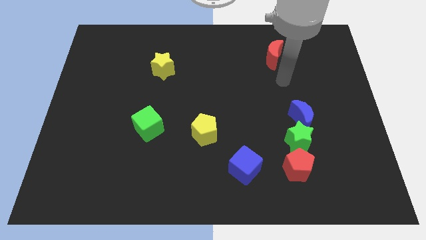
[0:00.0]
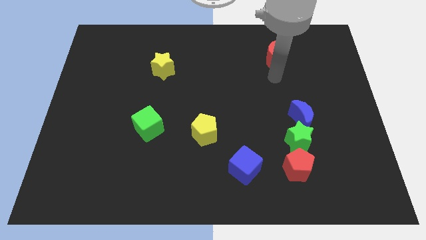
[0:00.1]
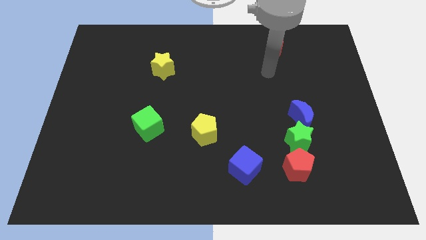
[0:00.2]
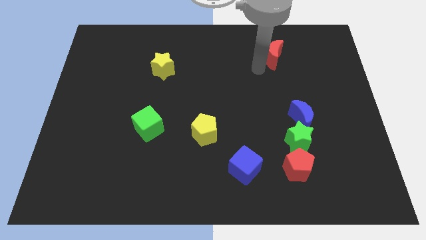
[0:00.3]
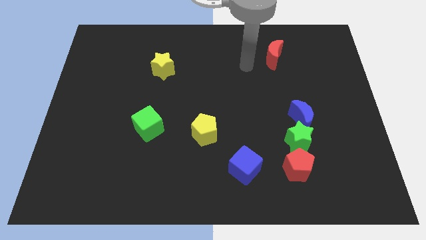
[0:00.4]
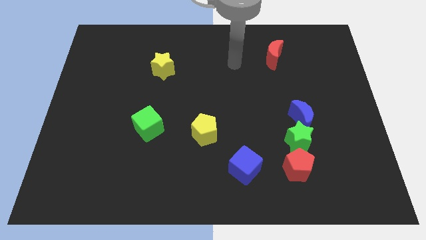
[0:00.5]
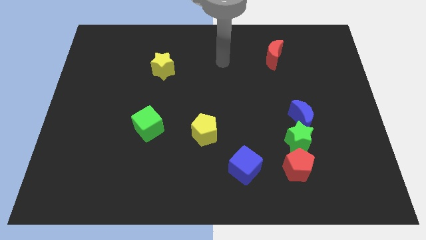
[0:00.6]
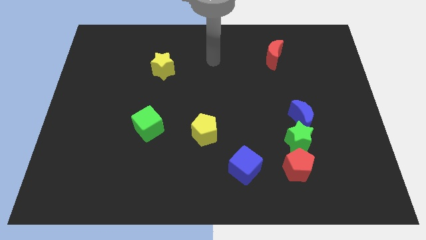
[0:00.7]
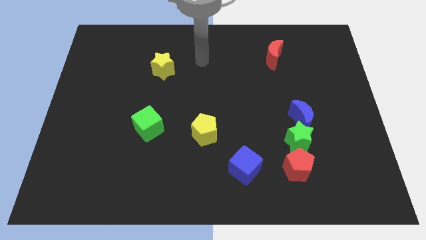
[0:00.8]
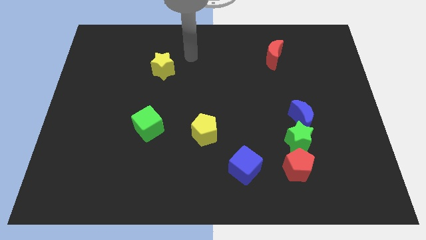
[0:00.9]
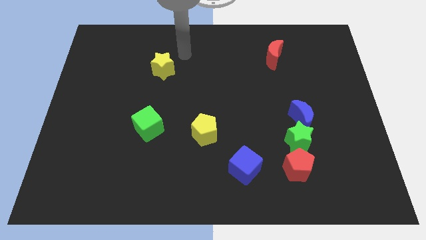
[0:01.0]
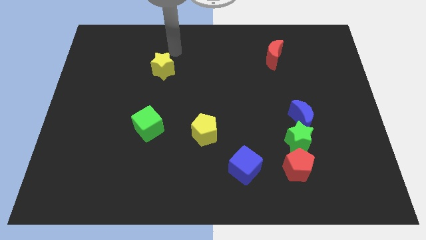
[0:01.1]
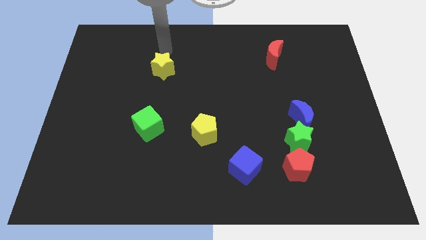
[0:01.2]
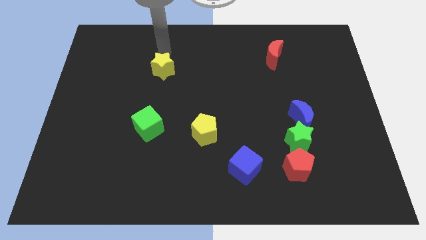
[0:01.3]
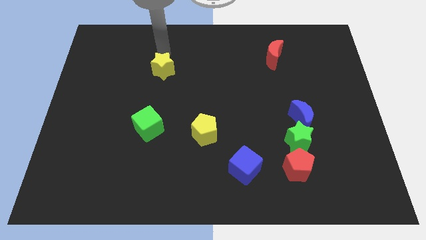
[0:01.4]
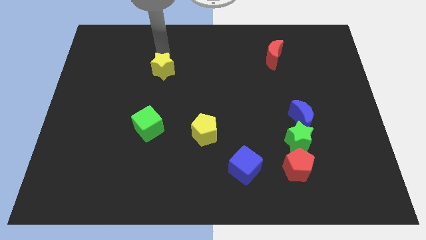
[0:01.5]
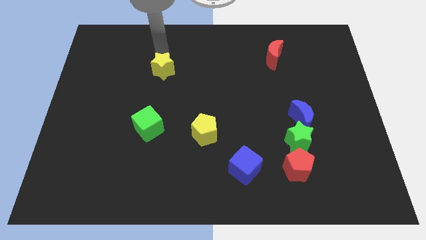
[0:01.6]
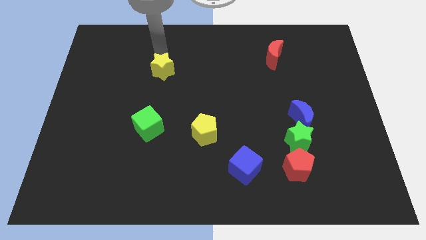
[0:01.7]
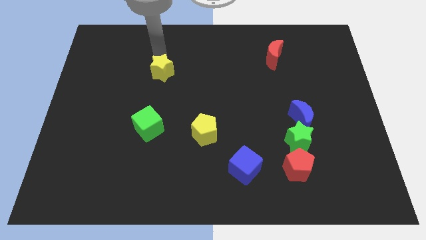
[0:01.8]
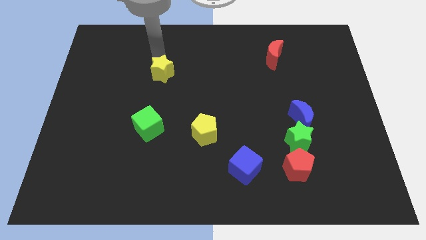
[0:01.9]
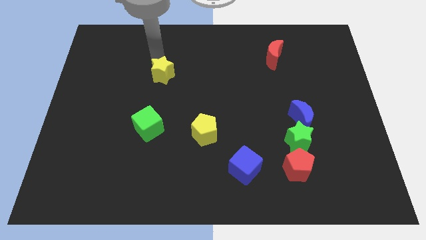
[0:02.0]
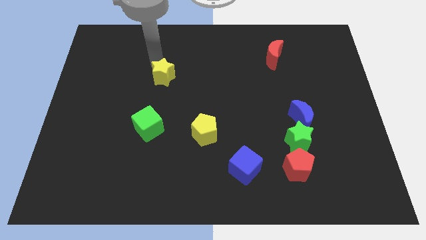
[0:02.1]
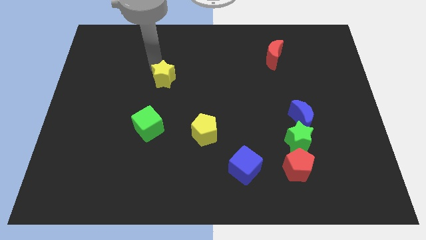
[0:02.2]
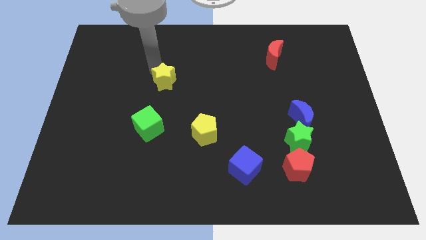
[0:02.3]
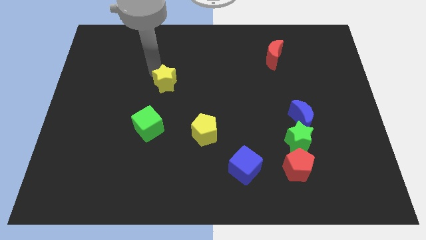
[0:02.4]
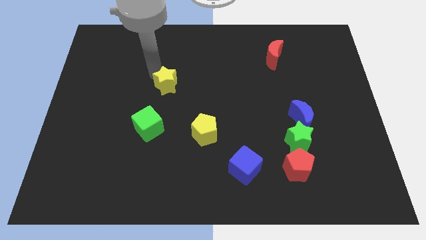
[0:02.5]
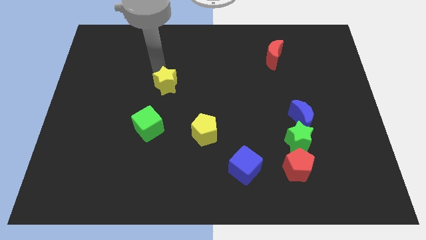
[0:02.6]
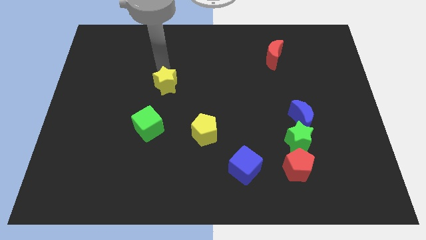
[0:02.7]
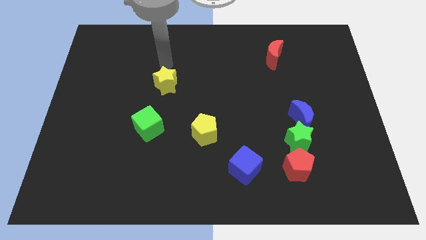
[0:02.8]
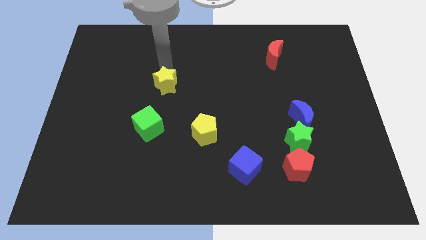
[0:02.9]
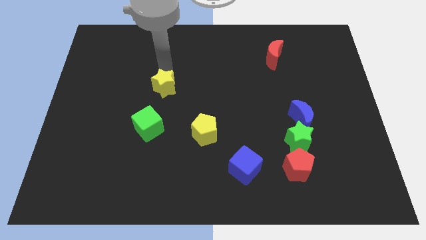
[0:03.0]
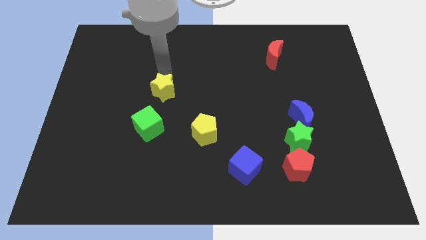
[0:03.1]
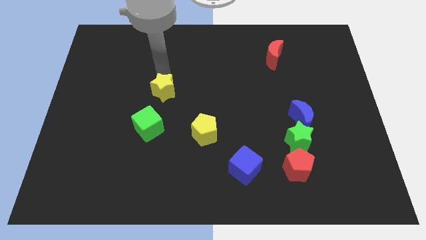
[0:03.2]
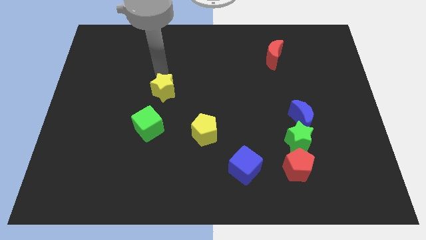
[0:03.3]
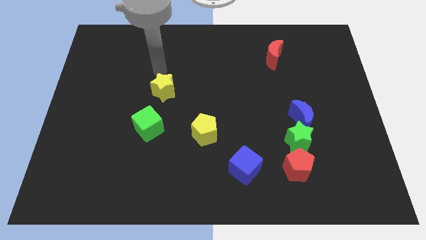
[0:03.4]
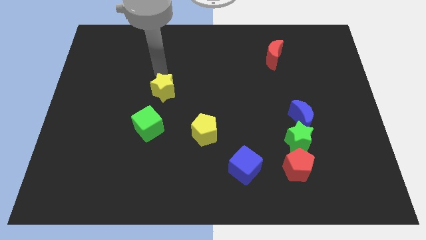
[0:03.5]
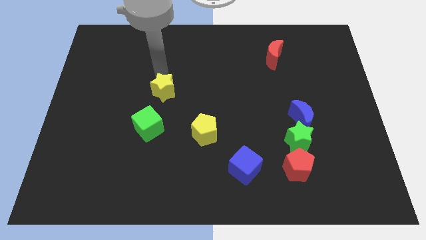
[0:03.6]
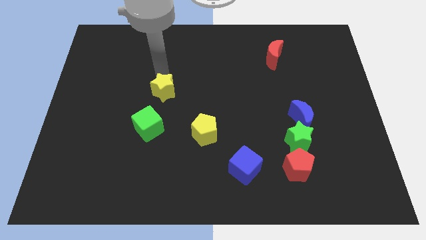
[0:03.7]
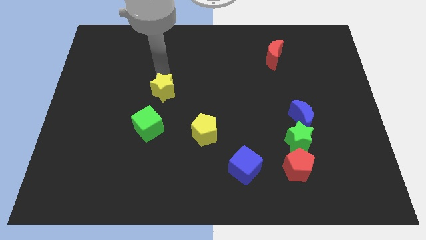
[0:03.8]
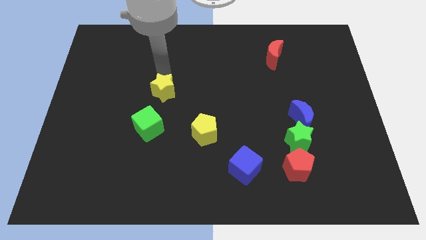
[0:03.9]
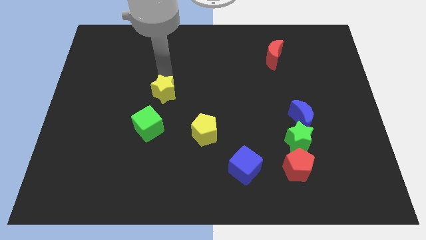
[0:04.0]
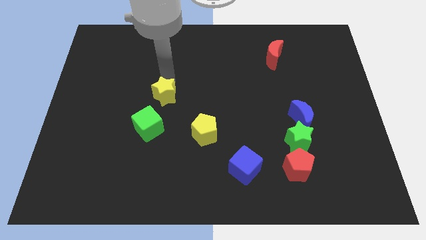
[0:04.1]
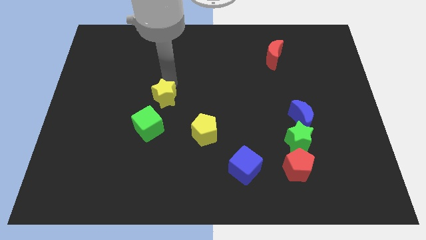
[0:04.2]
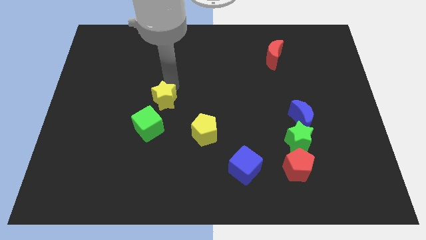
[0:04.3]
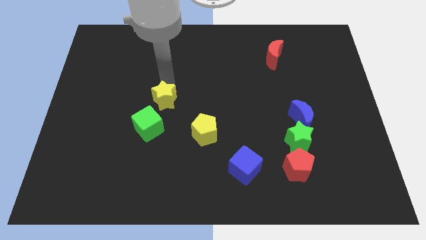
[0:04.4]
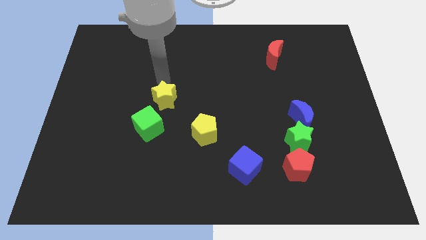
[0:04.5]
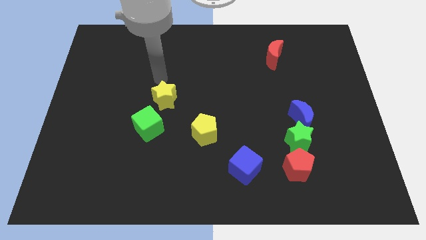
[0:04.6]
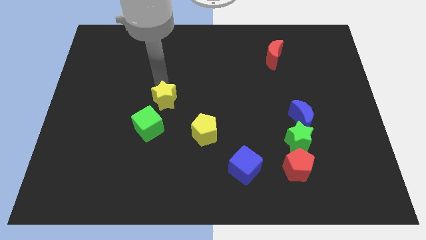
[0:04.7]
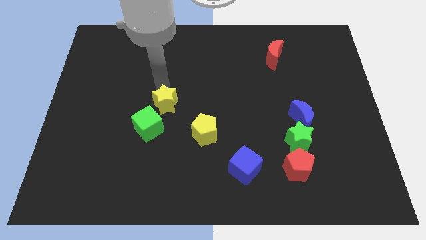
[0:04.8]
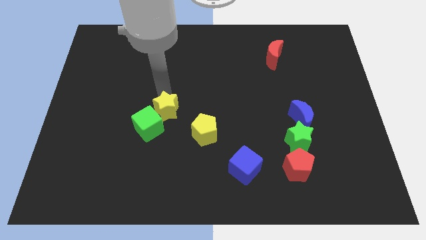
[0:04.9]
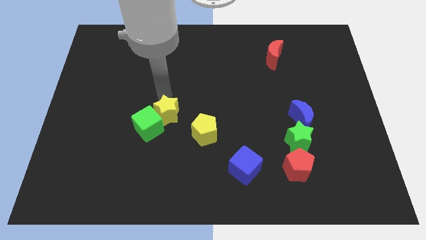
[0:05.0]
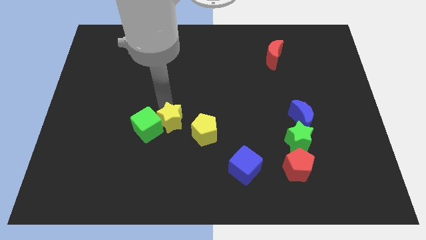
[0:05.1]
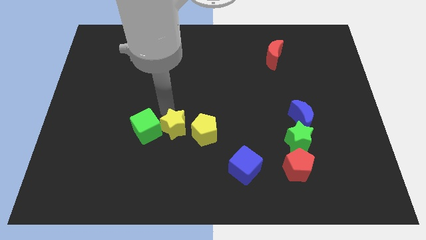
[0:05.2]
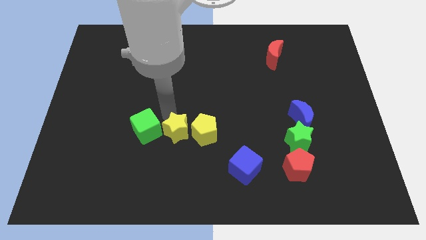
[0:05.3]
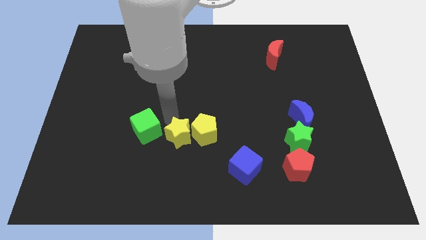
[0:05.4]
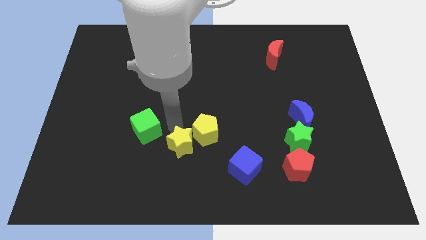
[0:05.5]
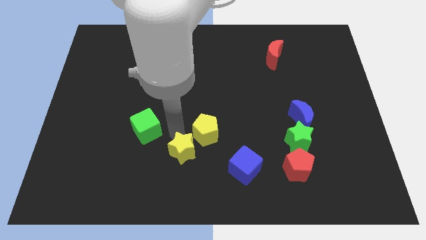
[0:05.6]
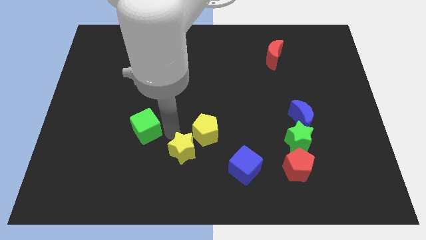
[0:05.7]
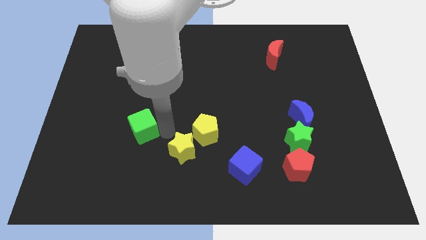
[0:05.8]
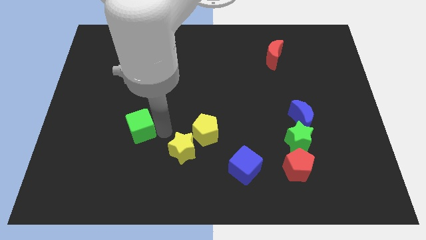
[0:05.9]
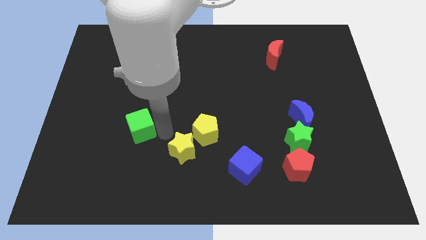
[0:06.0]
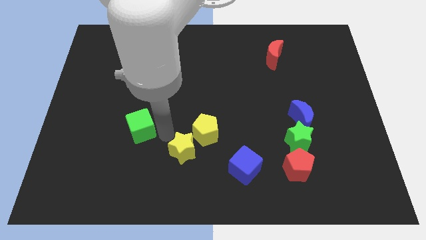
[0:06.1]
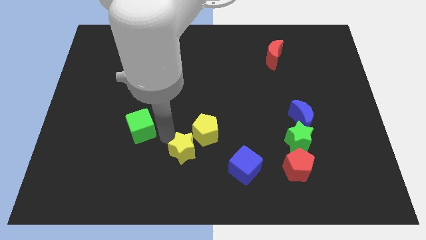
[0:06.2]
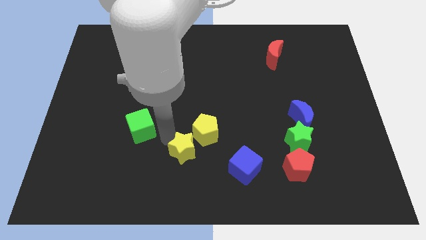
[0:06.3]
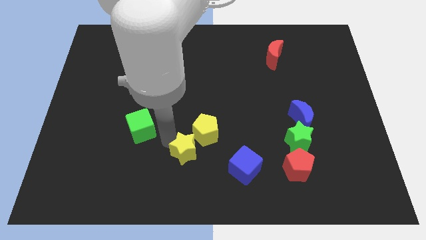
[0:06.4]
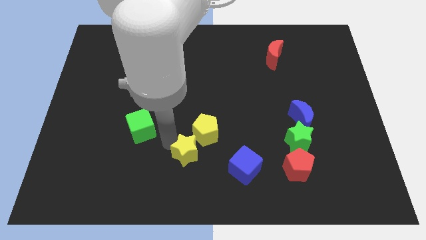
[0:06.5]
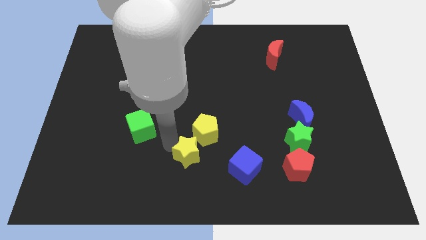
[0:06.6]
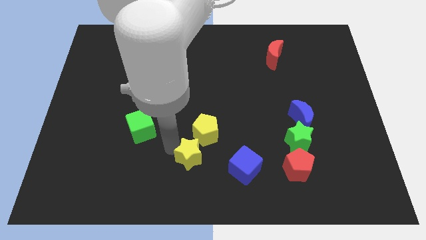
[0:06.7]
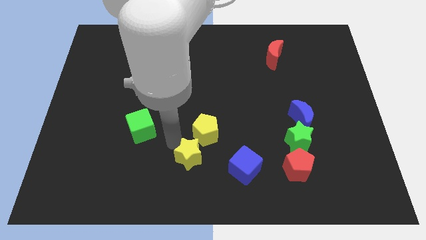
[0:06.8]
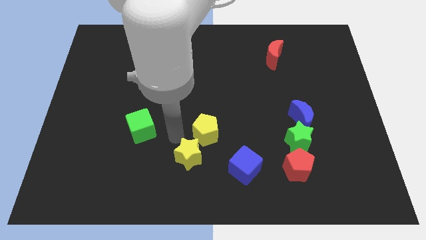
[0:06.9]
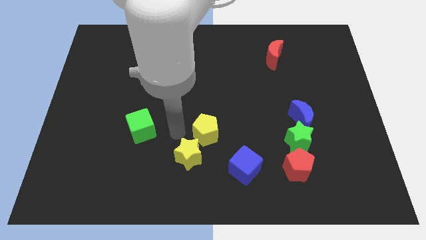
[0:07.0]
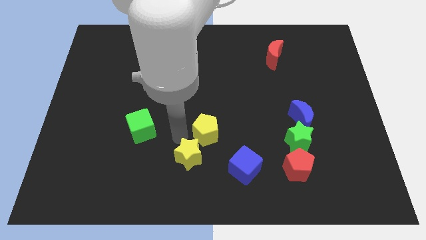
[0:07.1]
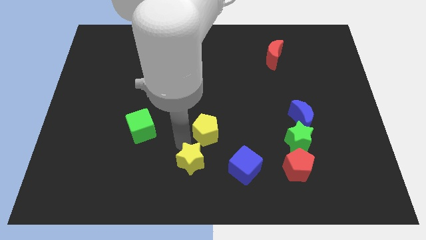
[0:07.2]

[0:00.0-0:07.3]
slide the yellow star to the bottom
